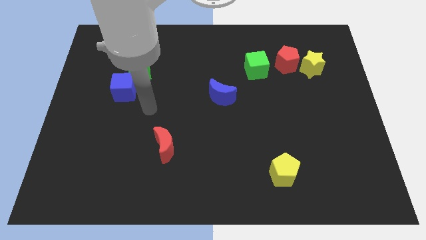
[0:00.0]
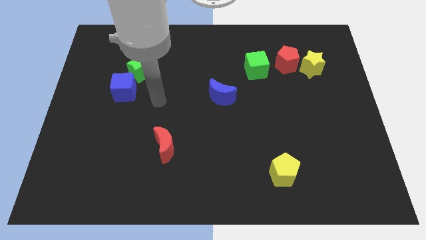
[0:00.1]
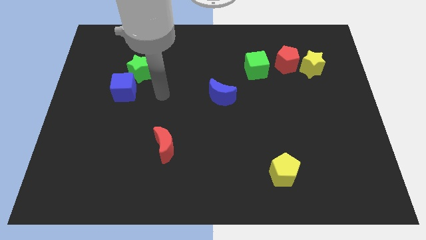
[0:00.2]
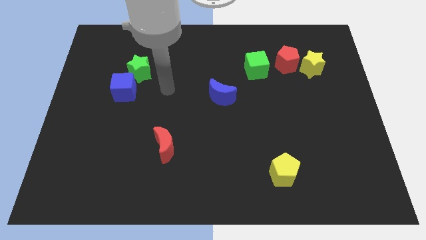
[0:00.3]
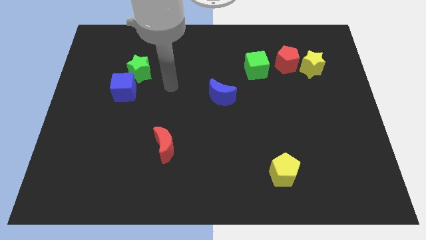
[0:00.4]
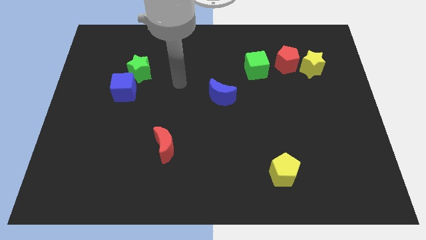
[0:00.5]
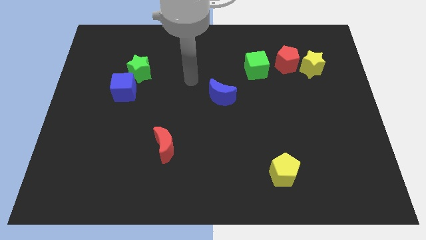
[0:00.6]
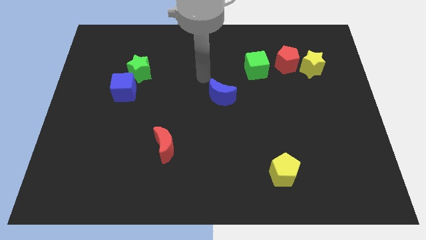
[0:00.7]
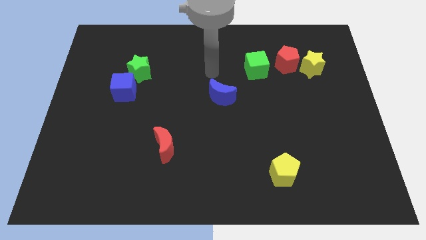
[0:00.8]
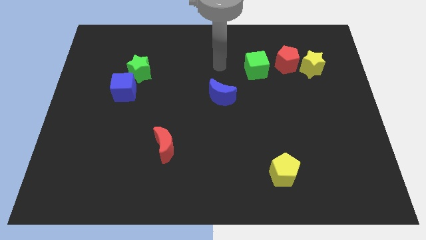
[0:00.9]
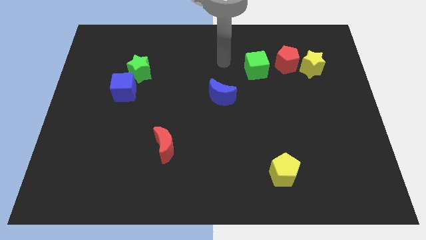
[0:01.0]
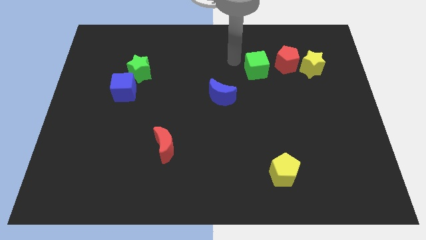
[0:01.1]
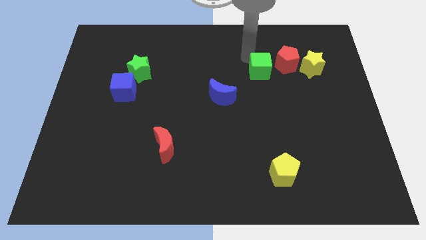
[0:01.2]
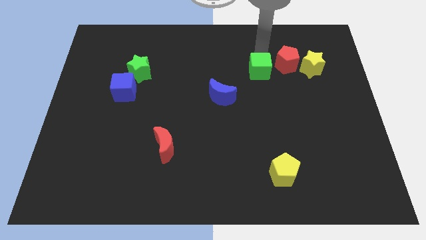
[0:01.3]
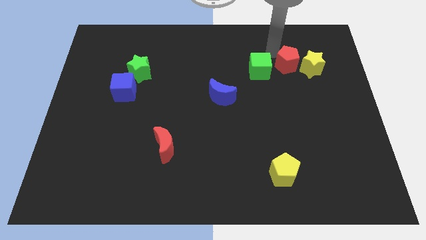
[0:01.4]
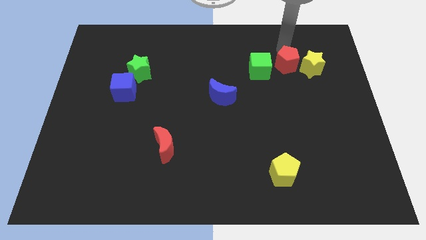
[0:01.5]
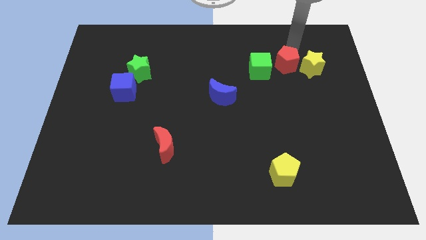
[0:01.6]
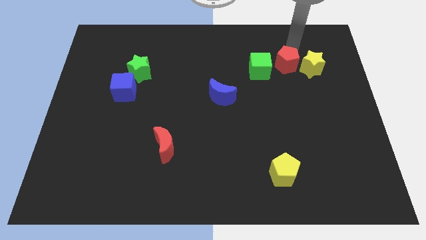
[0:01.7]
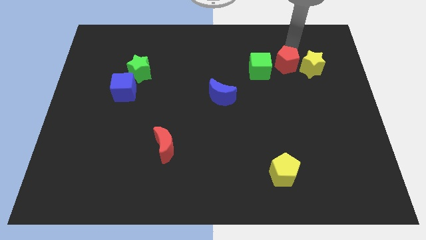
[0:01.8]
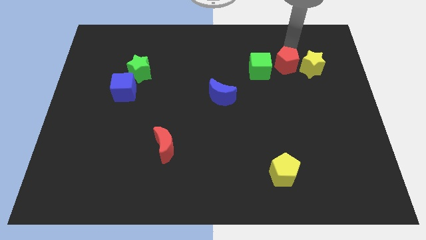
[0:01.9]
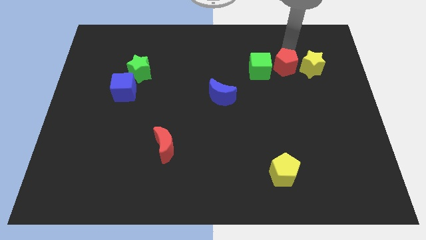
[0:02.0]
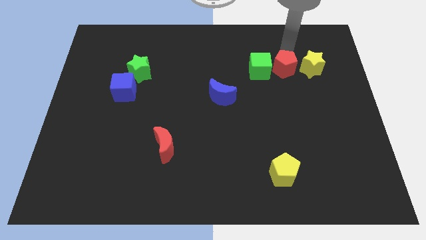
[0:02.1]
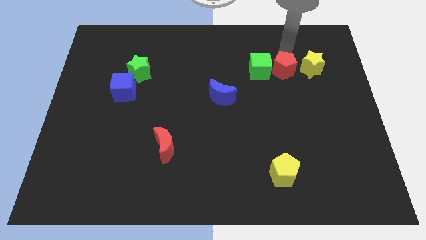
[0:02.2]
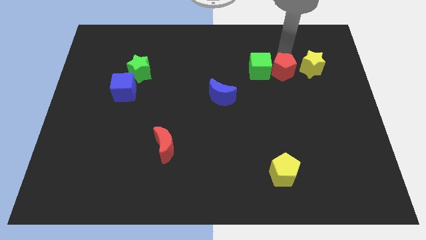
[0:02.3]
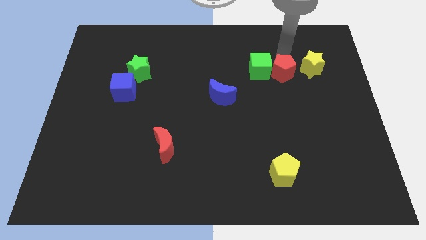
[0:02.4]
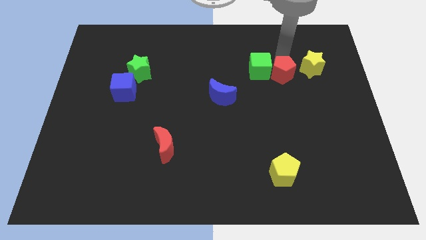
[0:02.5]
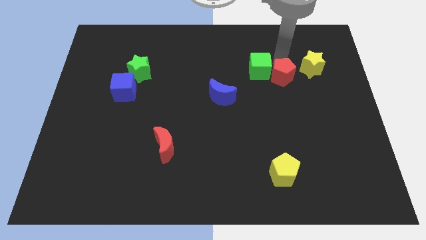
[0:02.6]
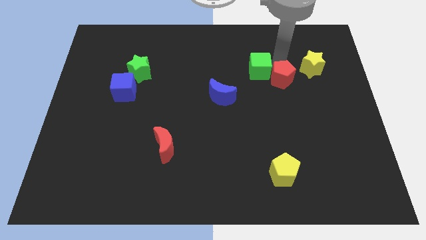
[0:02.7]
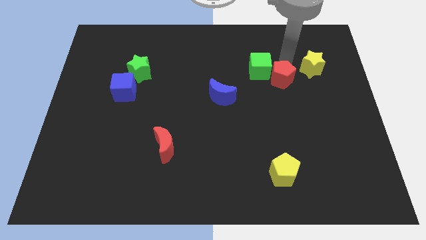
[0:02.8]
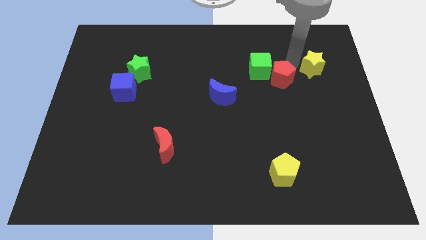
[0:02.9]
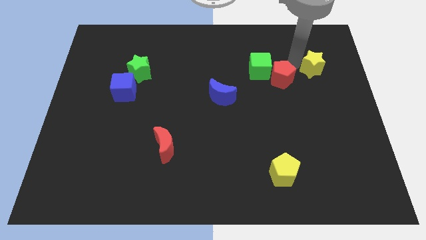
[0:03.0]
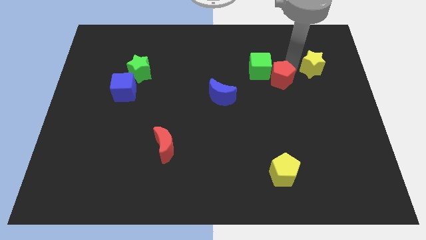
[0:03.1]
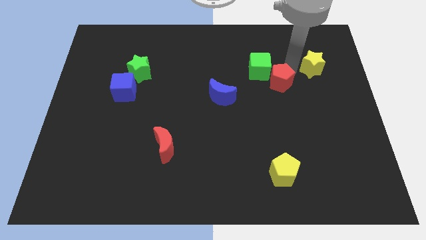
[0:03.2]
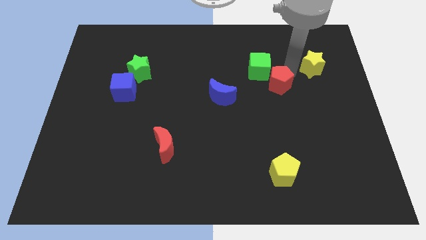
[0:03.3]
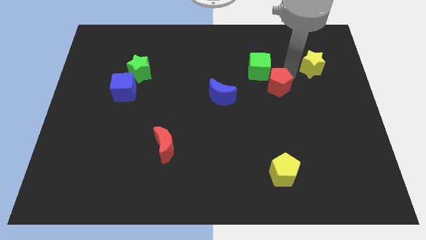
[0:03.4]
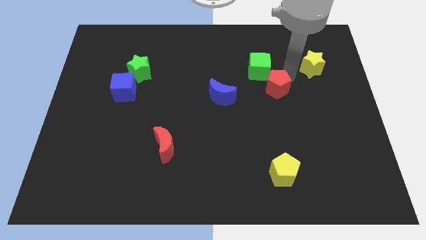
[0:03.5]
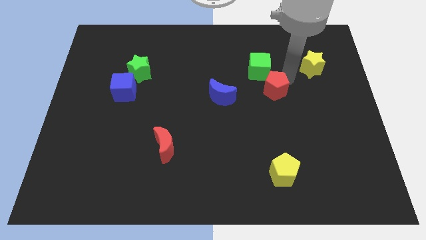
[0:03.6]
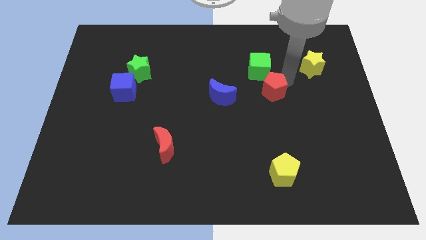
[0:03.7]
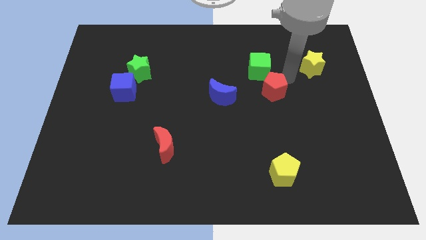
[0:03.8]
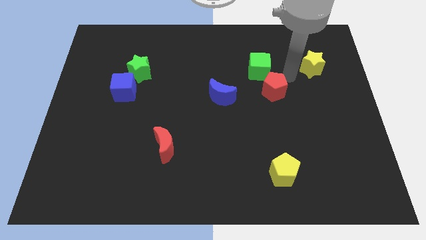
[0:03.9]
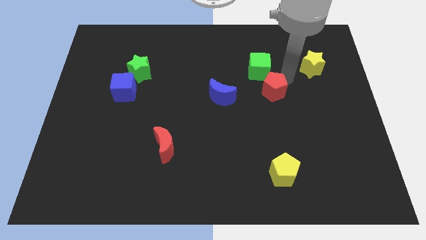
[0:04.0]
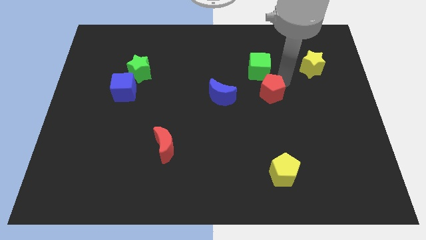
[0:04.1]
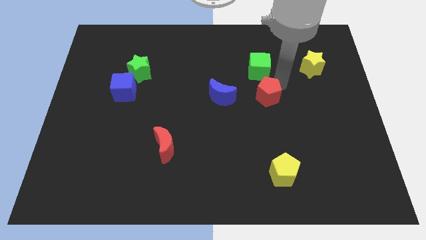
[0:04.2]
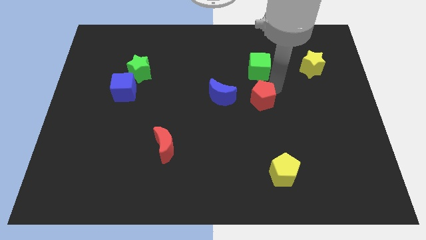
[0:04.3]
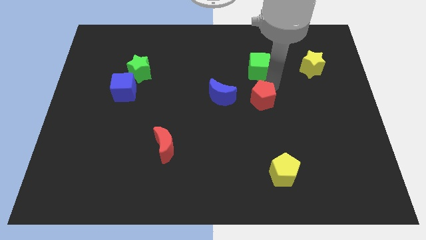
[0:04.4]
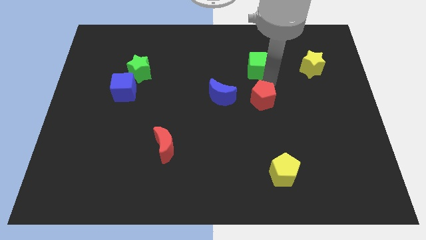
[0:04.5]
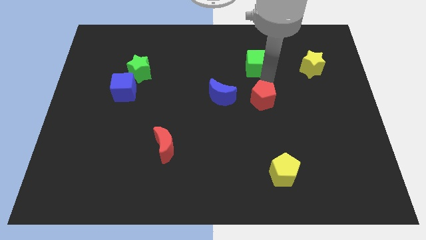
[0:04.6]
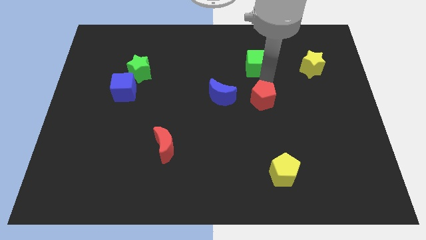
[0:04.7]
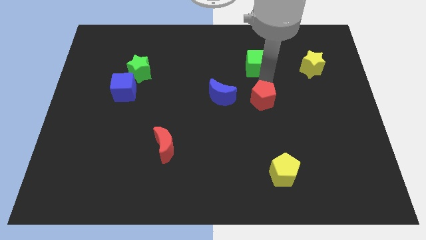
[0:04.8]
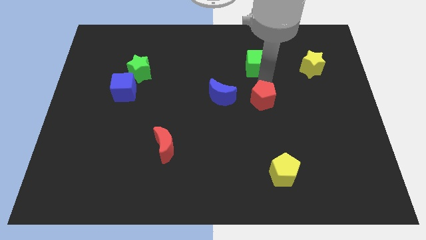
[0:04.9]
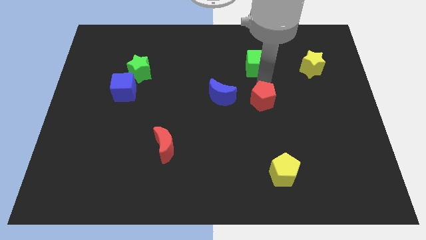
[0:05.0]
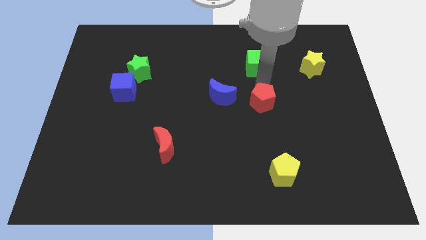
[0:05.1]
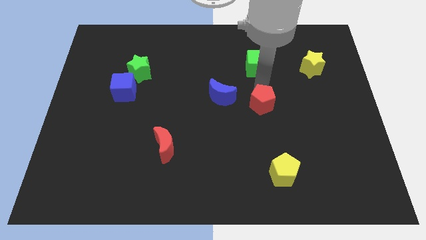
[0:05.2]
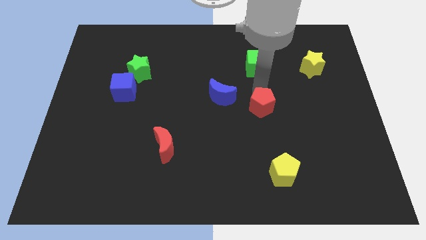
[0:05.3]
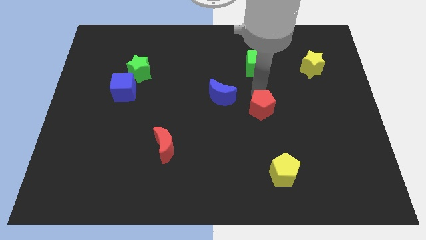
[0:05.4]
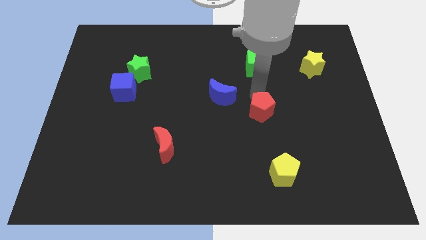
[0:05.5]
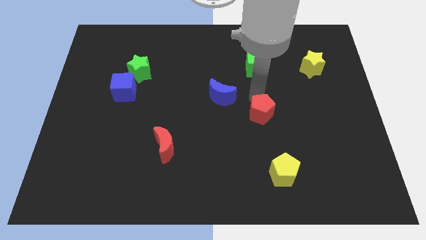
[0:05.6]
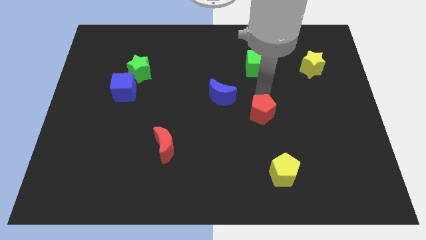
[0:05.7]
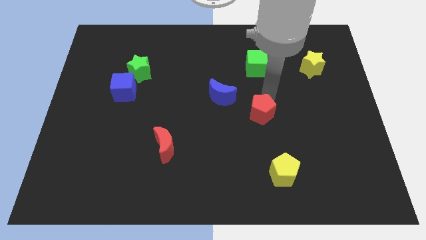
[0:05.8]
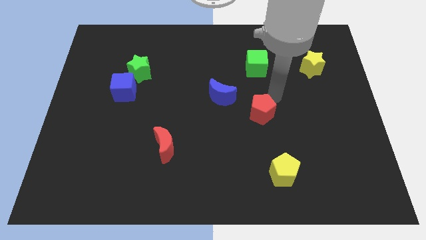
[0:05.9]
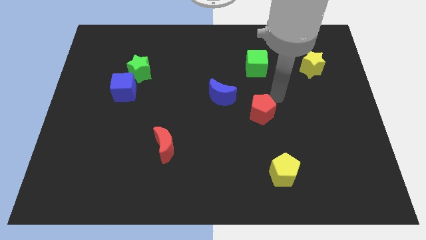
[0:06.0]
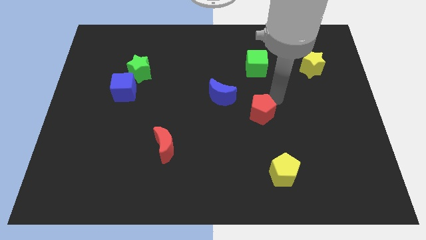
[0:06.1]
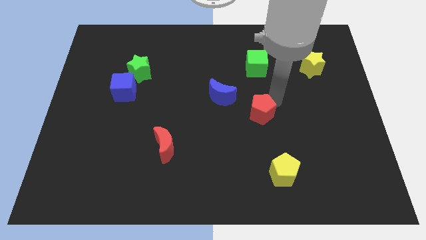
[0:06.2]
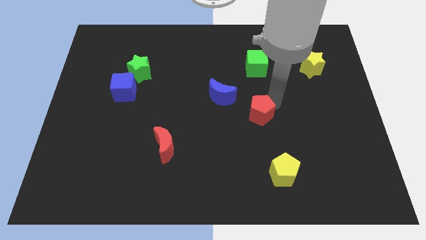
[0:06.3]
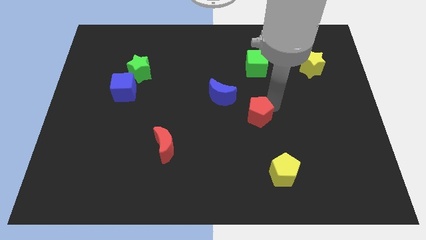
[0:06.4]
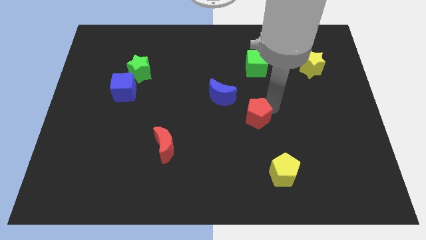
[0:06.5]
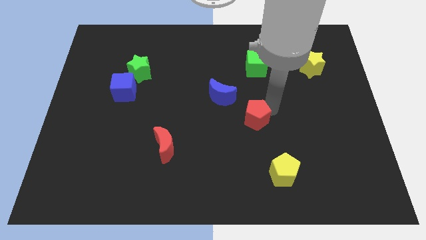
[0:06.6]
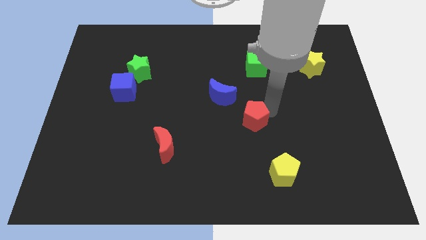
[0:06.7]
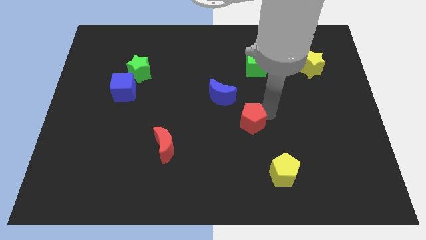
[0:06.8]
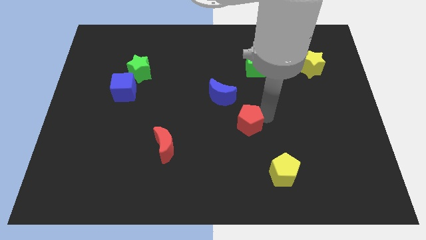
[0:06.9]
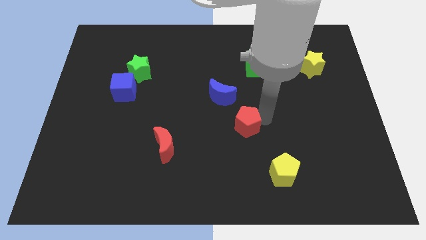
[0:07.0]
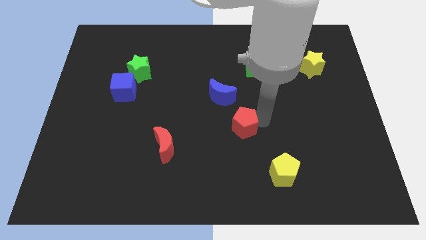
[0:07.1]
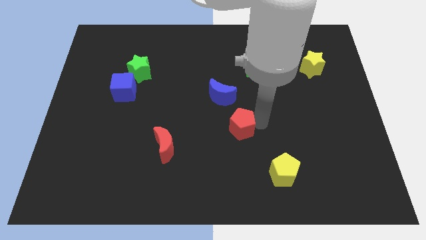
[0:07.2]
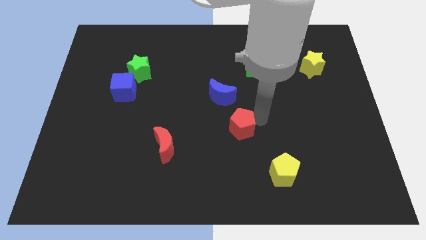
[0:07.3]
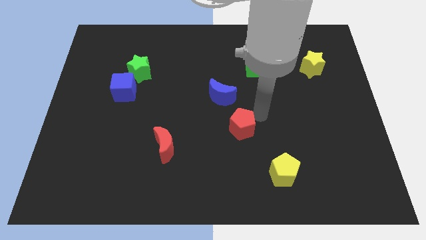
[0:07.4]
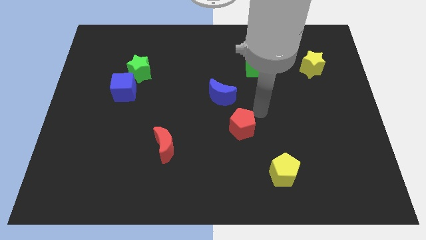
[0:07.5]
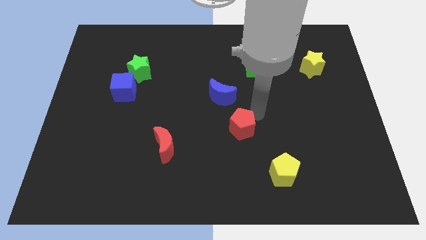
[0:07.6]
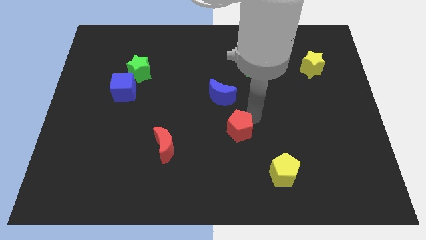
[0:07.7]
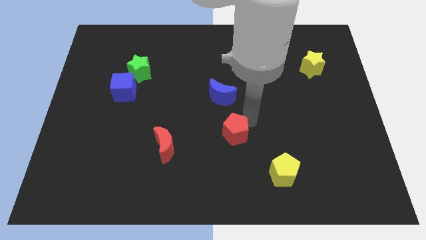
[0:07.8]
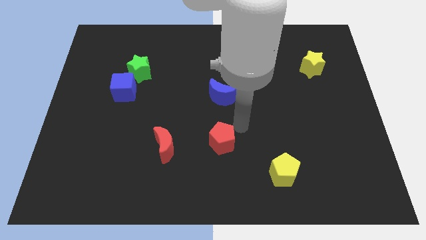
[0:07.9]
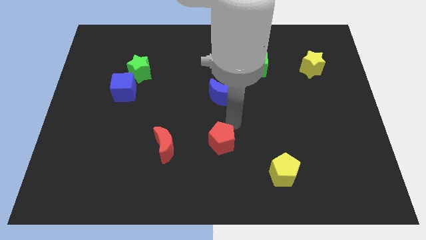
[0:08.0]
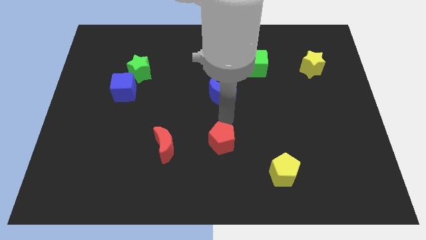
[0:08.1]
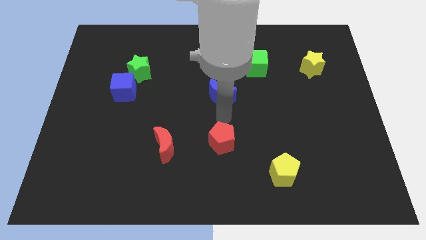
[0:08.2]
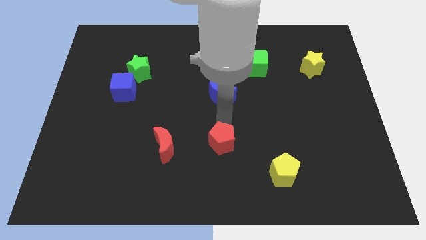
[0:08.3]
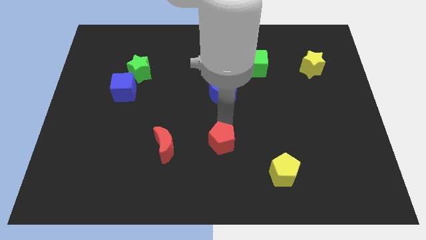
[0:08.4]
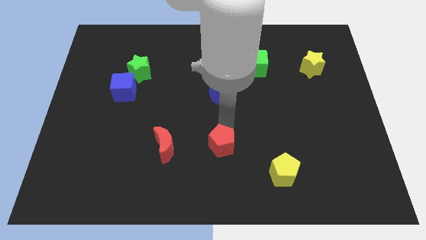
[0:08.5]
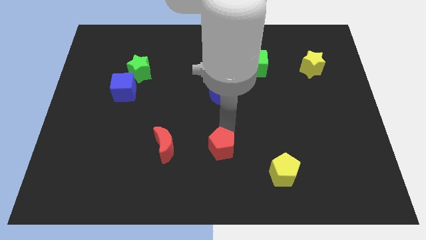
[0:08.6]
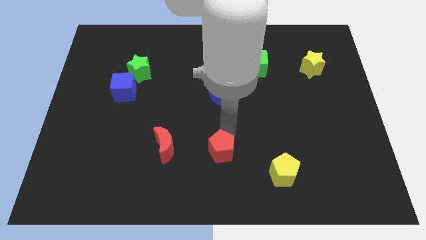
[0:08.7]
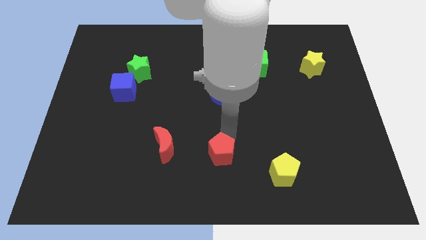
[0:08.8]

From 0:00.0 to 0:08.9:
push the red pentagon to the bottom
